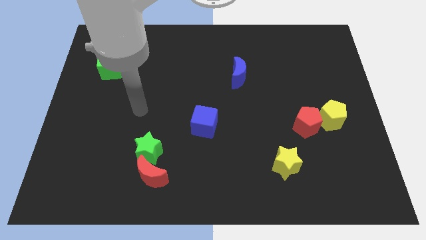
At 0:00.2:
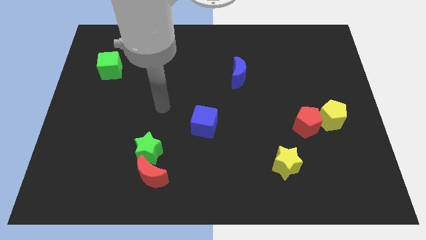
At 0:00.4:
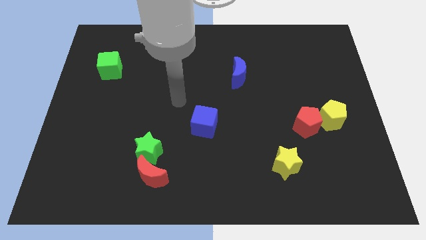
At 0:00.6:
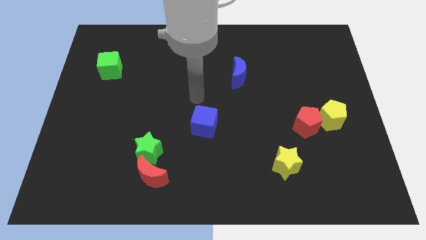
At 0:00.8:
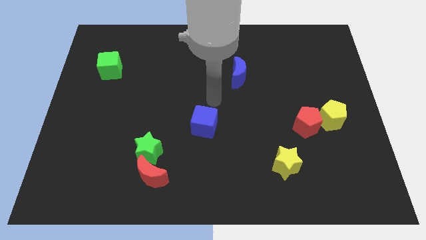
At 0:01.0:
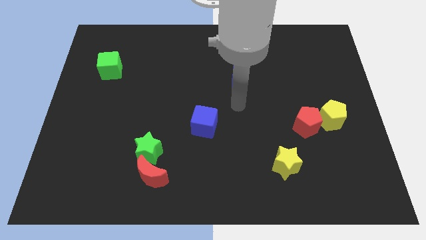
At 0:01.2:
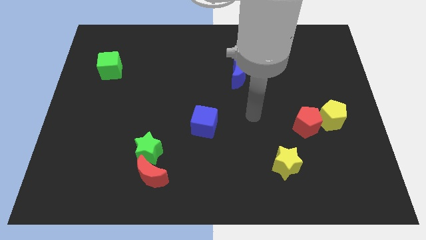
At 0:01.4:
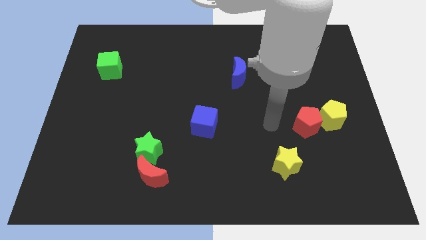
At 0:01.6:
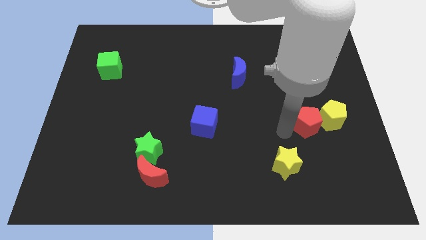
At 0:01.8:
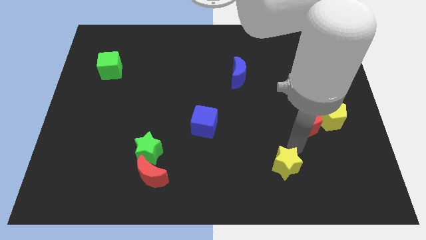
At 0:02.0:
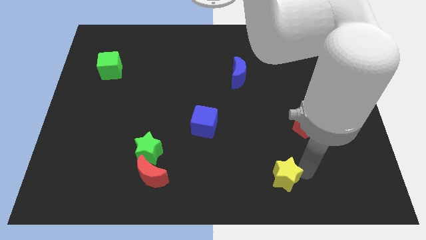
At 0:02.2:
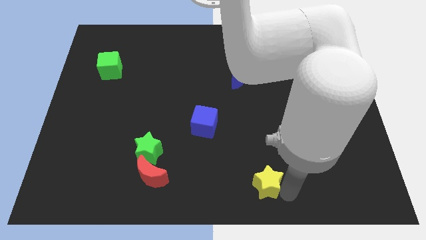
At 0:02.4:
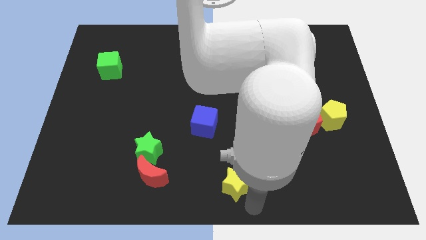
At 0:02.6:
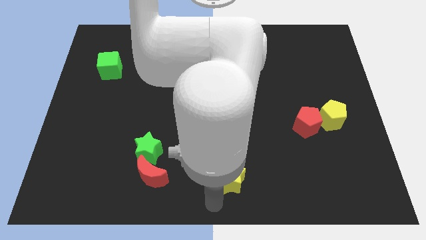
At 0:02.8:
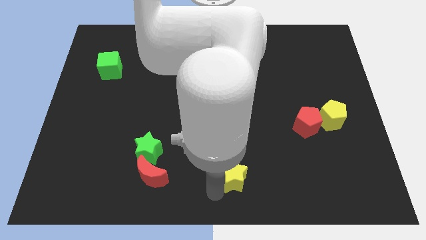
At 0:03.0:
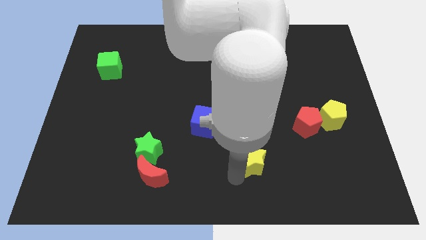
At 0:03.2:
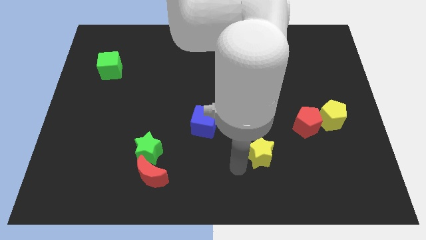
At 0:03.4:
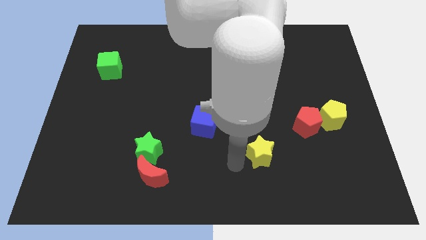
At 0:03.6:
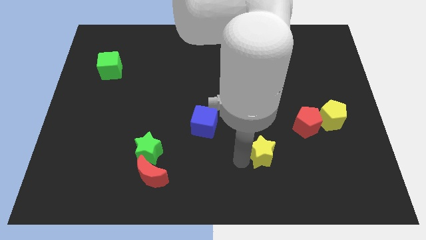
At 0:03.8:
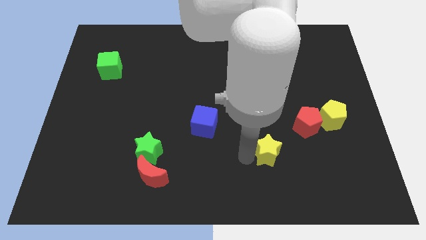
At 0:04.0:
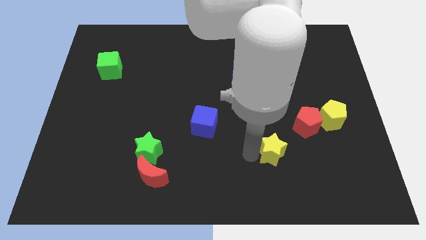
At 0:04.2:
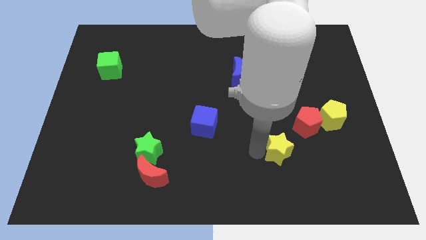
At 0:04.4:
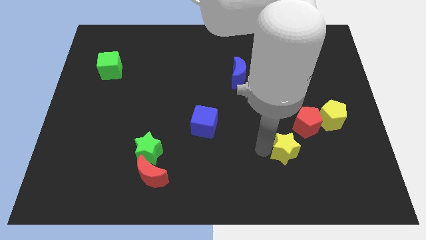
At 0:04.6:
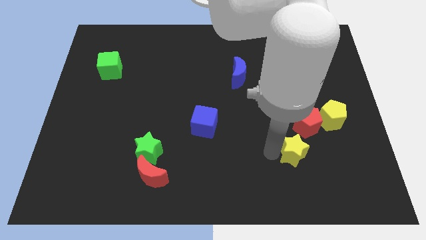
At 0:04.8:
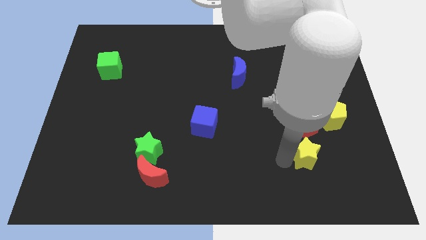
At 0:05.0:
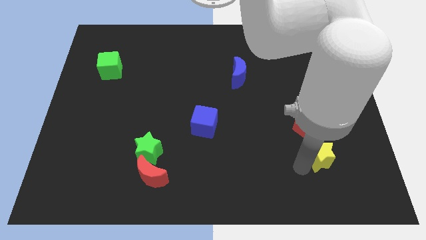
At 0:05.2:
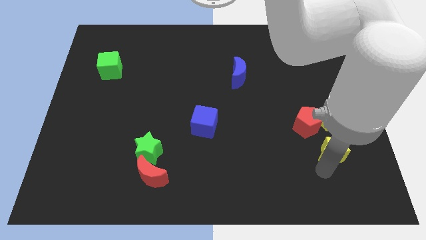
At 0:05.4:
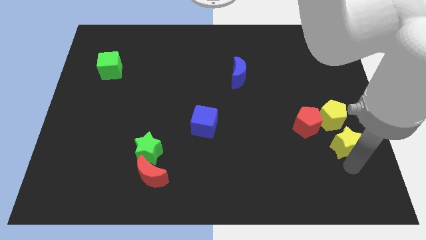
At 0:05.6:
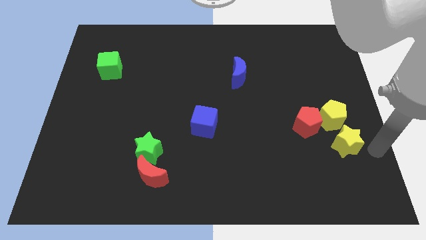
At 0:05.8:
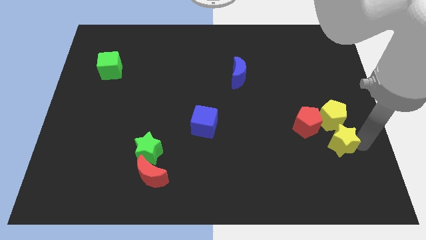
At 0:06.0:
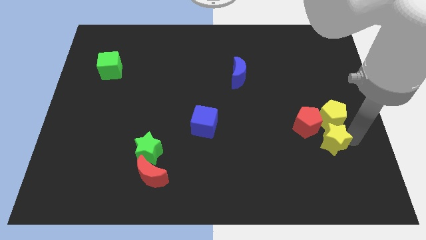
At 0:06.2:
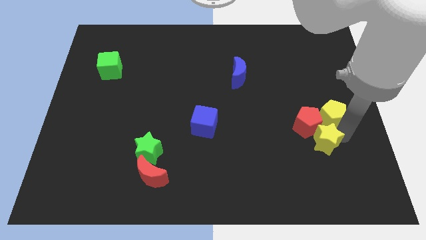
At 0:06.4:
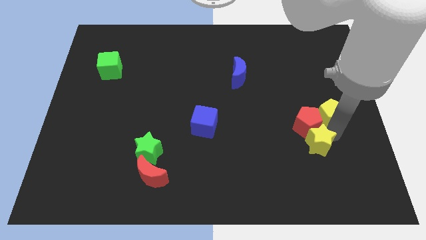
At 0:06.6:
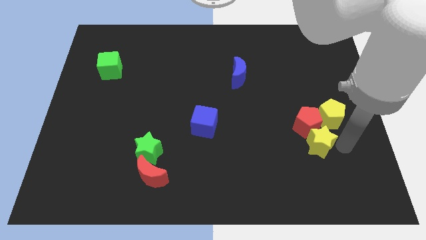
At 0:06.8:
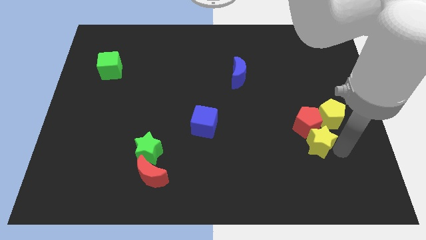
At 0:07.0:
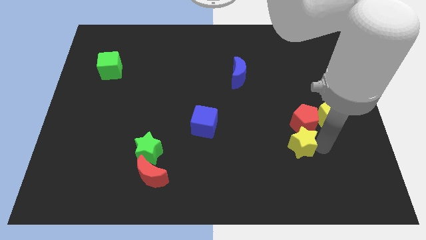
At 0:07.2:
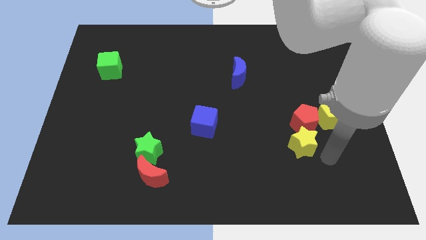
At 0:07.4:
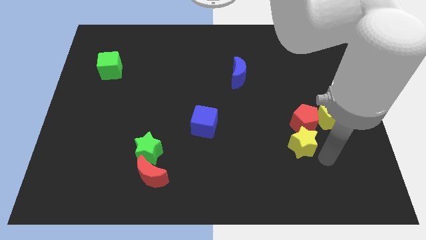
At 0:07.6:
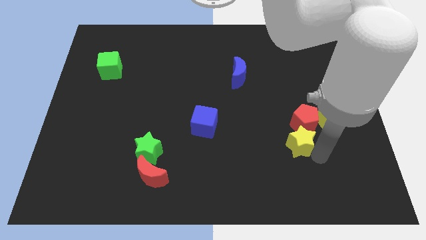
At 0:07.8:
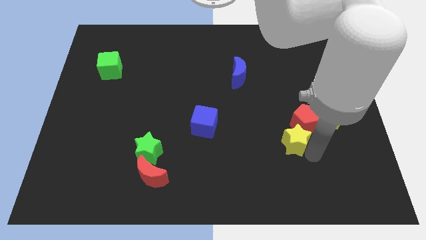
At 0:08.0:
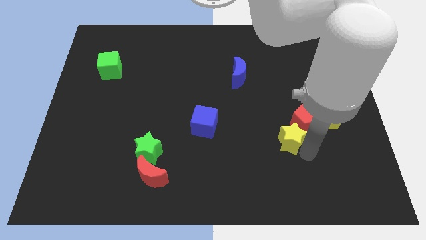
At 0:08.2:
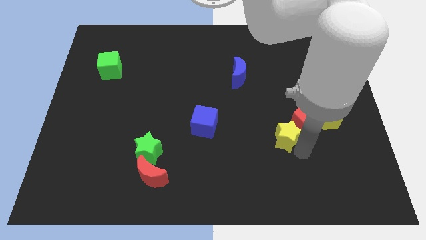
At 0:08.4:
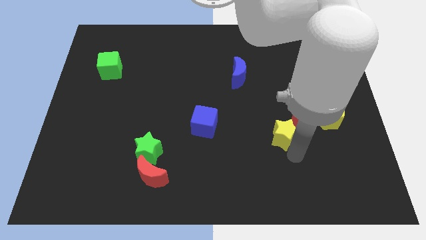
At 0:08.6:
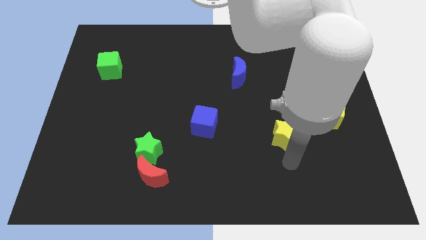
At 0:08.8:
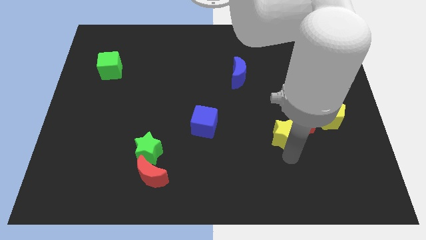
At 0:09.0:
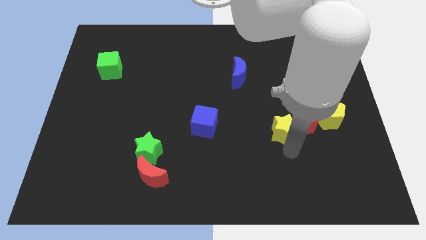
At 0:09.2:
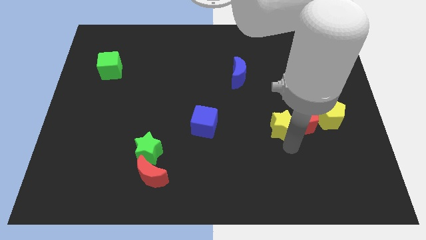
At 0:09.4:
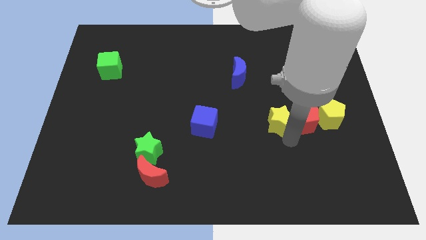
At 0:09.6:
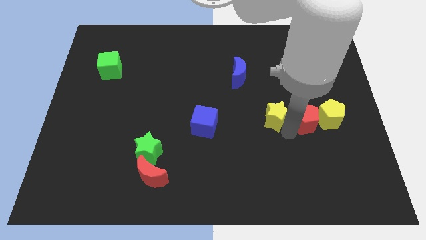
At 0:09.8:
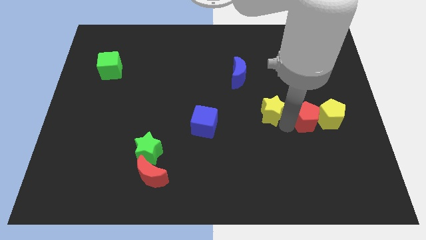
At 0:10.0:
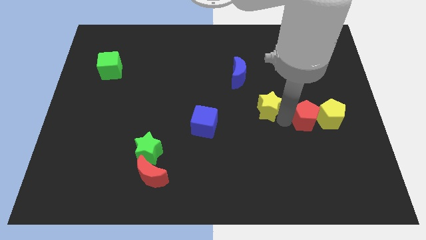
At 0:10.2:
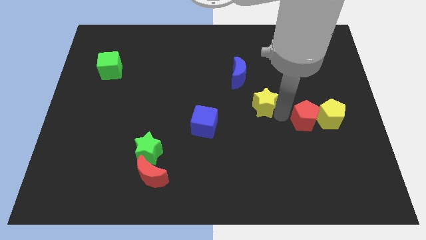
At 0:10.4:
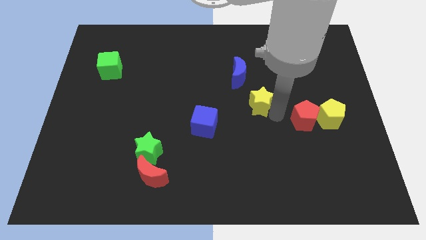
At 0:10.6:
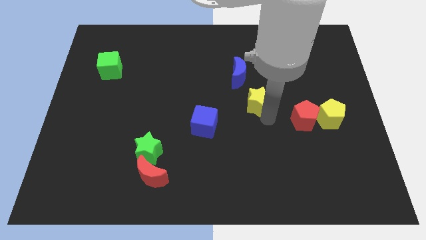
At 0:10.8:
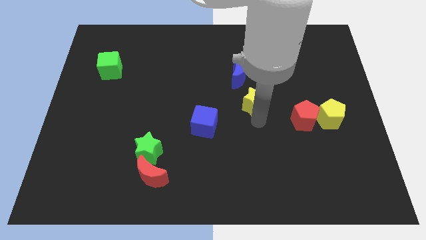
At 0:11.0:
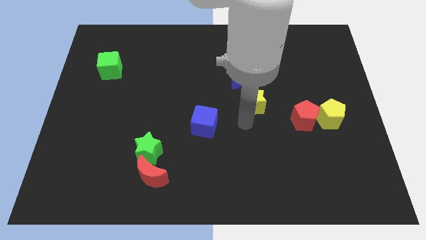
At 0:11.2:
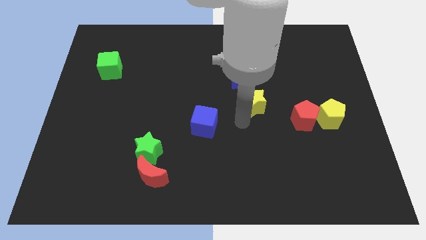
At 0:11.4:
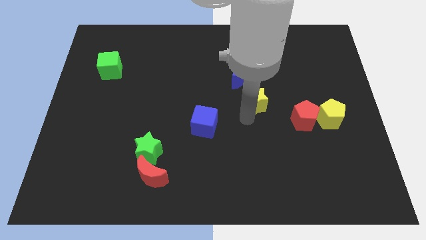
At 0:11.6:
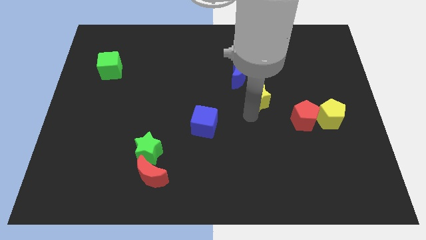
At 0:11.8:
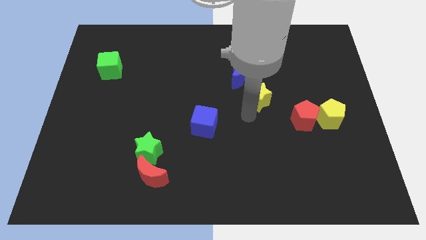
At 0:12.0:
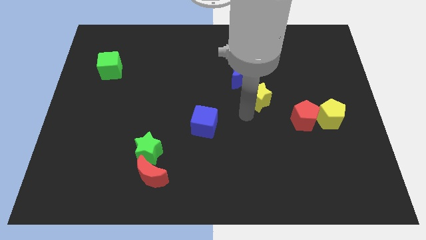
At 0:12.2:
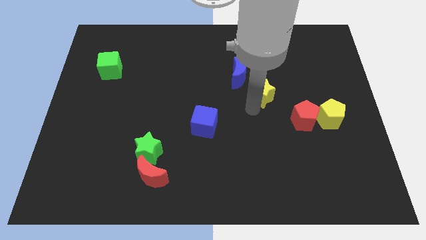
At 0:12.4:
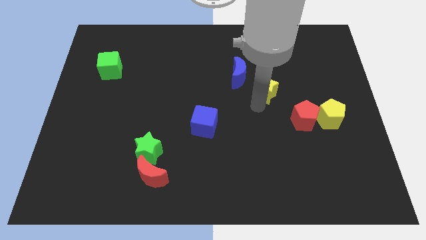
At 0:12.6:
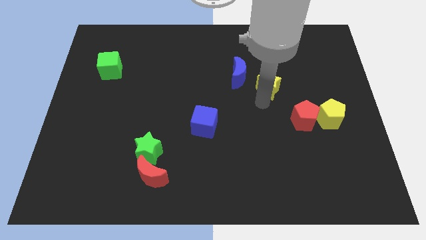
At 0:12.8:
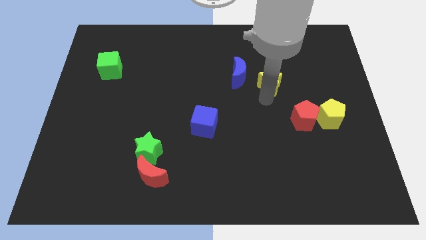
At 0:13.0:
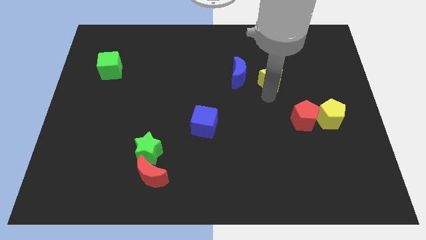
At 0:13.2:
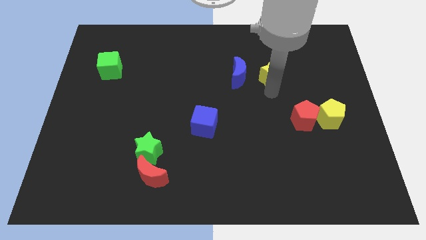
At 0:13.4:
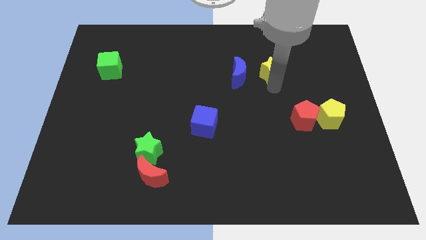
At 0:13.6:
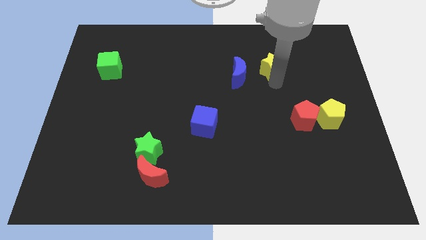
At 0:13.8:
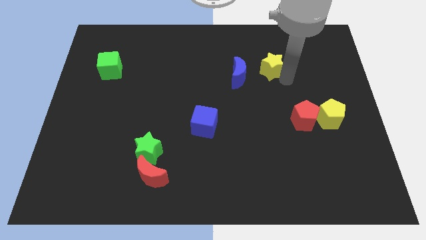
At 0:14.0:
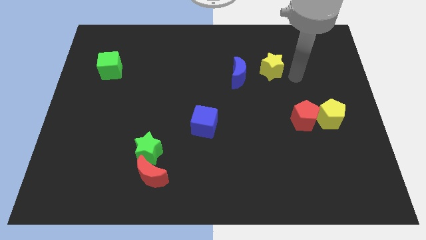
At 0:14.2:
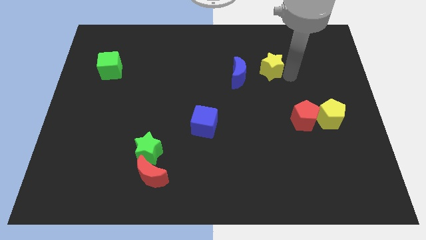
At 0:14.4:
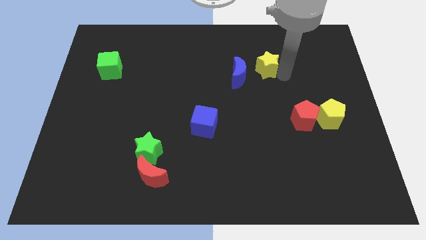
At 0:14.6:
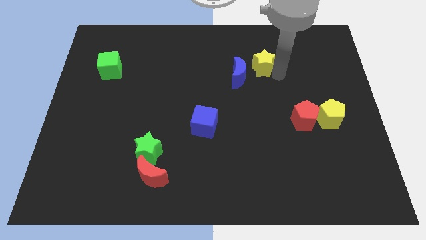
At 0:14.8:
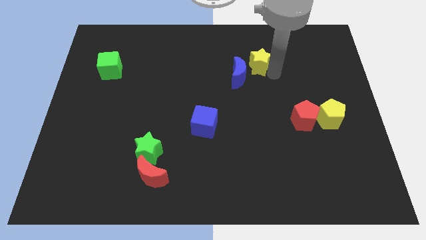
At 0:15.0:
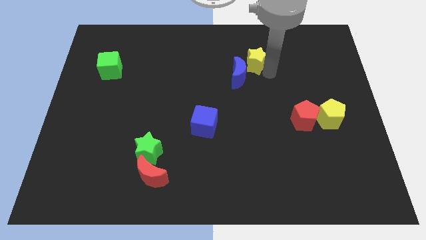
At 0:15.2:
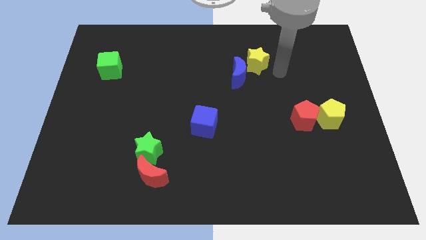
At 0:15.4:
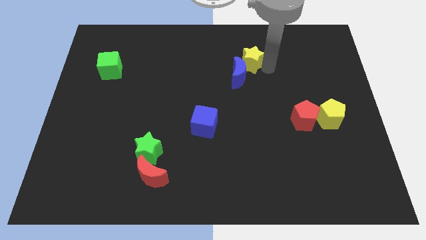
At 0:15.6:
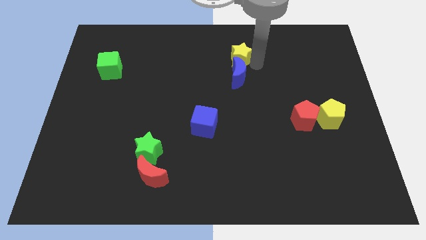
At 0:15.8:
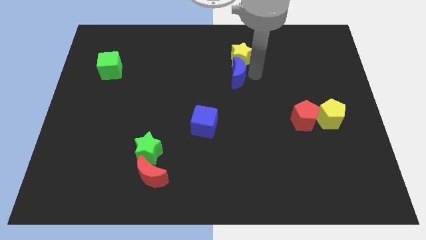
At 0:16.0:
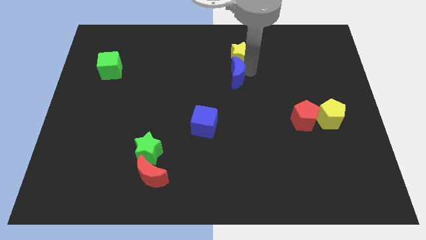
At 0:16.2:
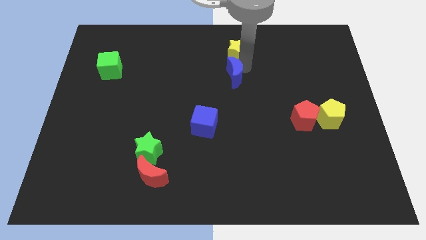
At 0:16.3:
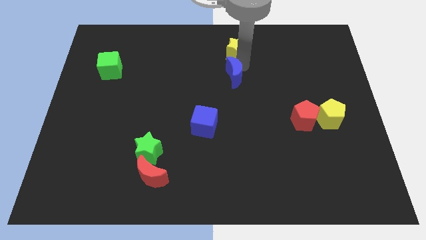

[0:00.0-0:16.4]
push the yellow star to the top side
